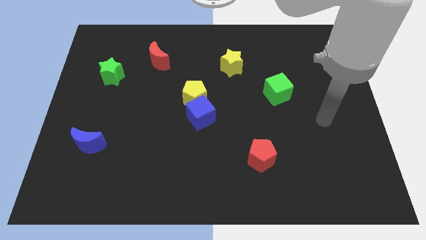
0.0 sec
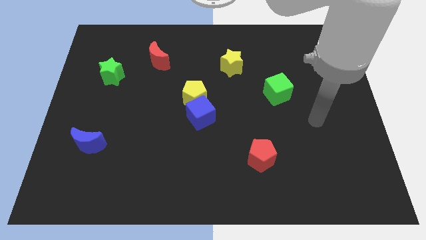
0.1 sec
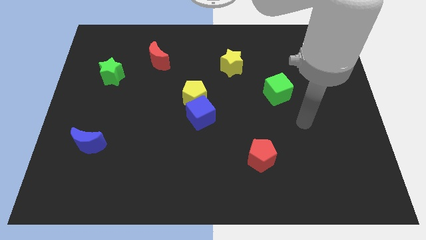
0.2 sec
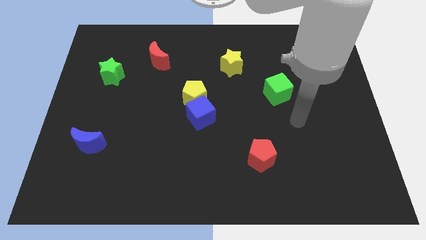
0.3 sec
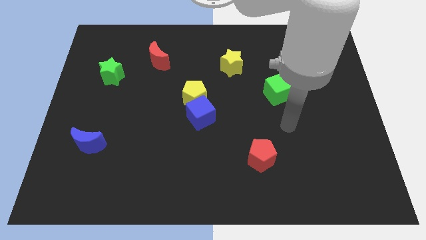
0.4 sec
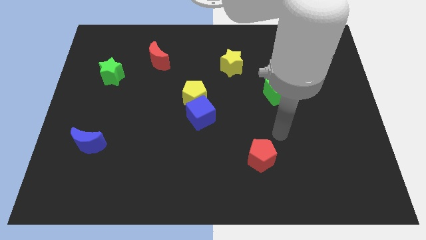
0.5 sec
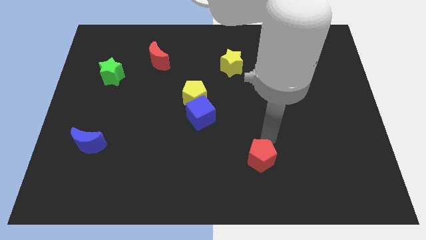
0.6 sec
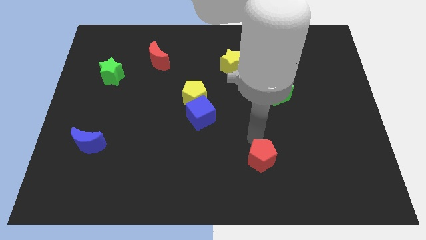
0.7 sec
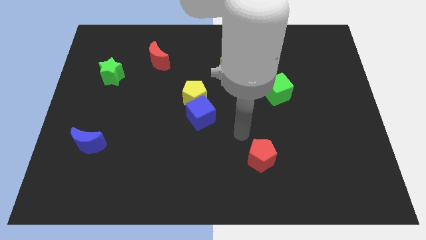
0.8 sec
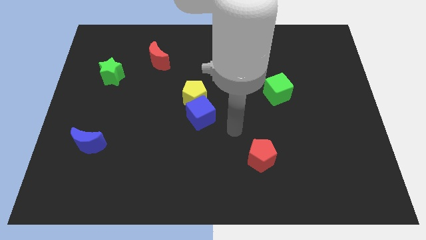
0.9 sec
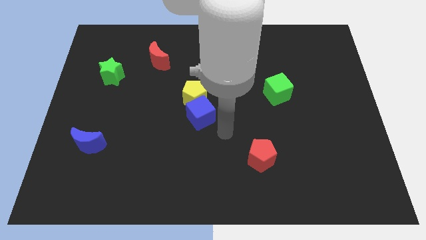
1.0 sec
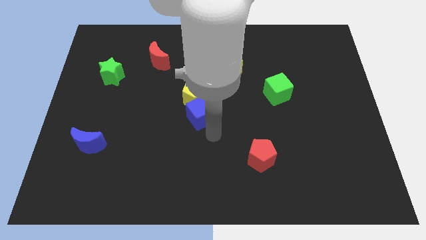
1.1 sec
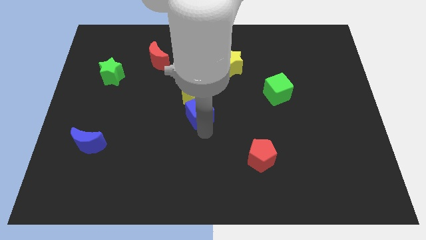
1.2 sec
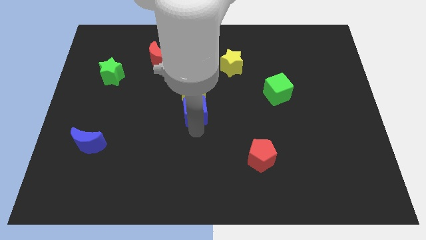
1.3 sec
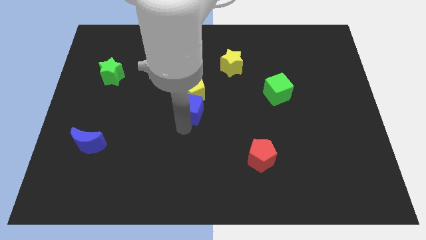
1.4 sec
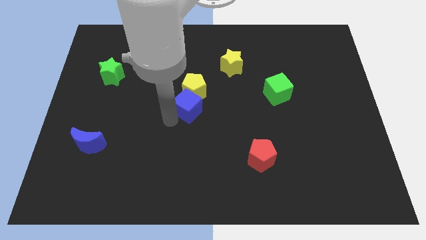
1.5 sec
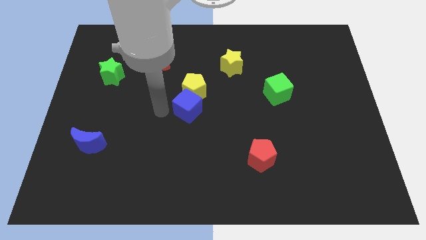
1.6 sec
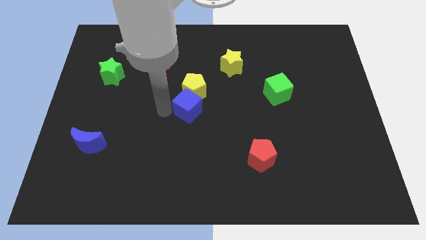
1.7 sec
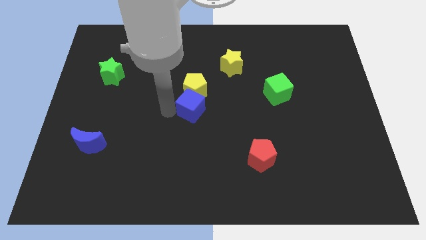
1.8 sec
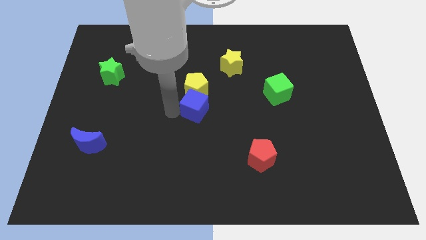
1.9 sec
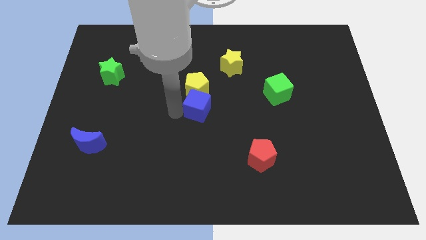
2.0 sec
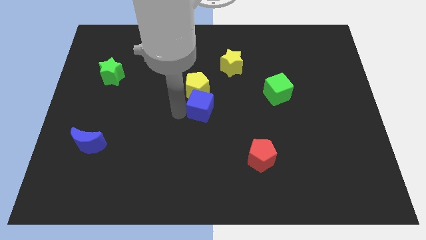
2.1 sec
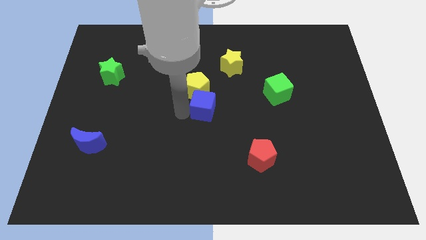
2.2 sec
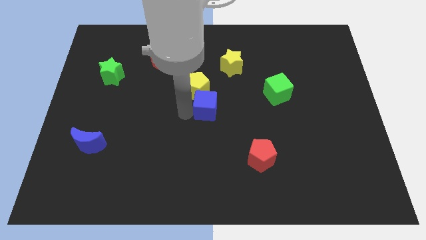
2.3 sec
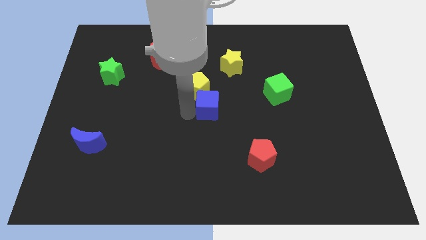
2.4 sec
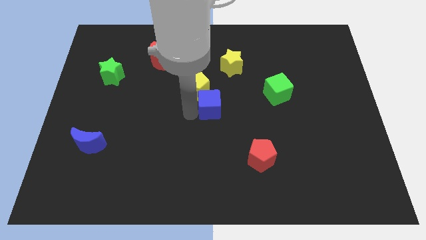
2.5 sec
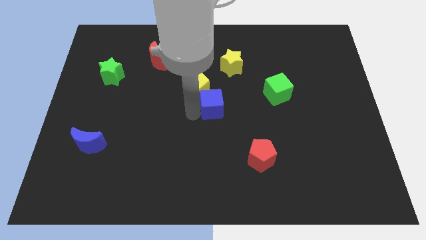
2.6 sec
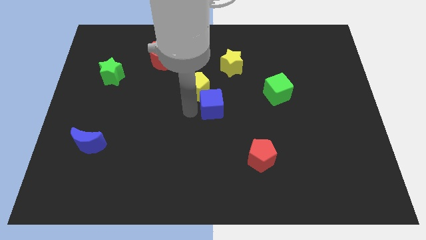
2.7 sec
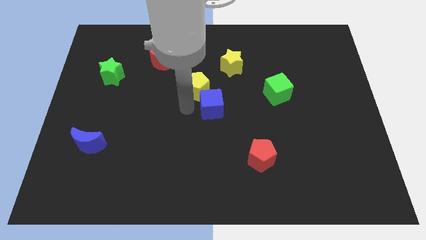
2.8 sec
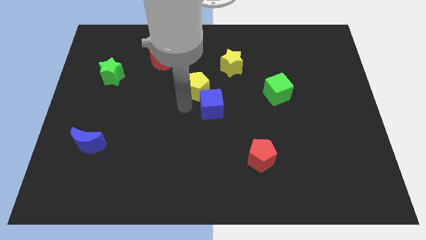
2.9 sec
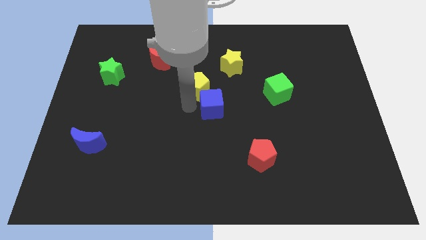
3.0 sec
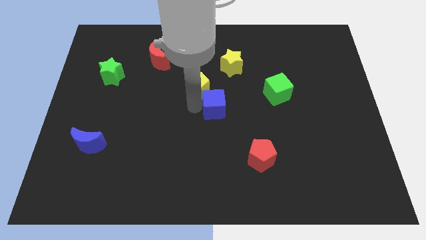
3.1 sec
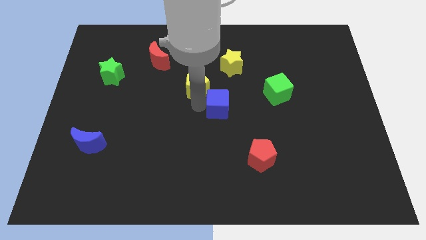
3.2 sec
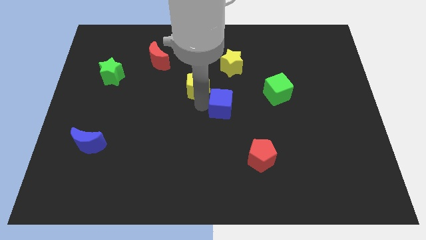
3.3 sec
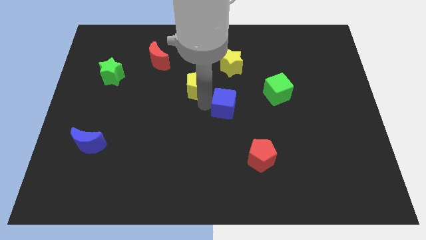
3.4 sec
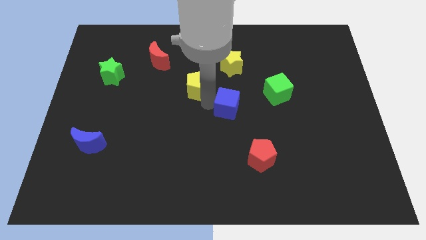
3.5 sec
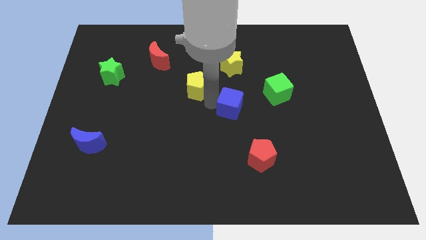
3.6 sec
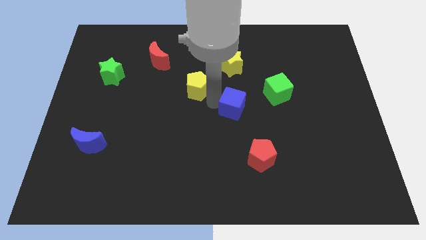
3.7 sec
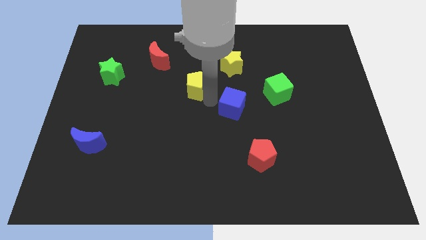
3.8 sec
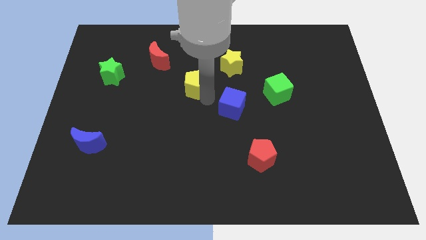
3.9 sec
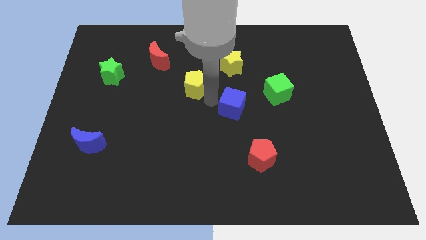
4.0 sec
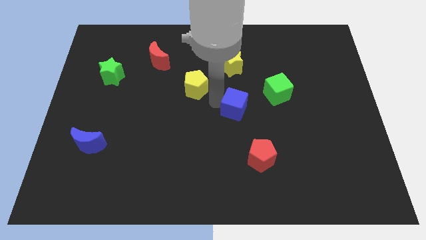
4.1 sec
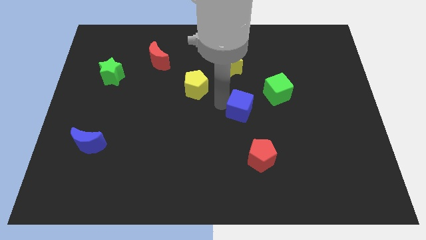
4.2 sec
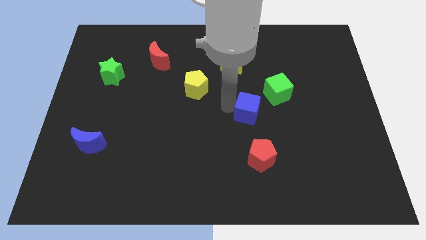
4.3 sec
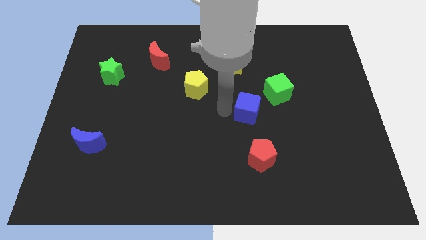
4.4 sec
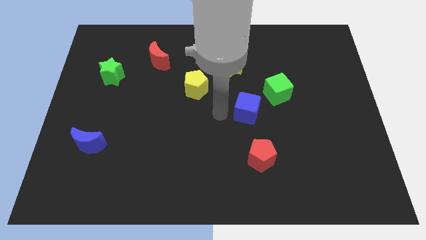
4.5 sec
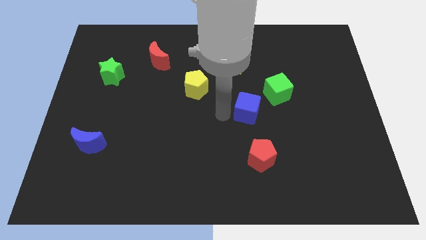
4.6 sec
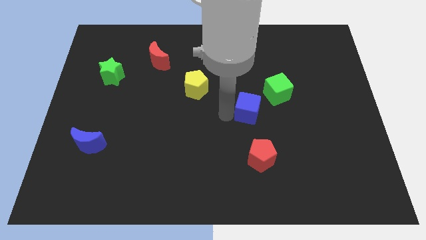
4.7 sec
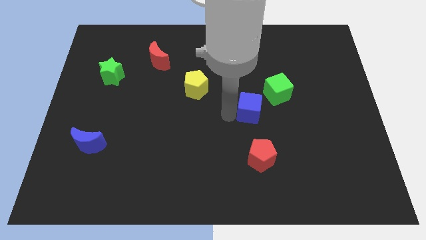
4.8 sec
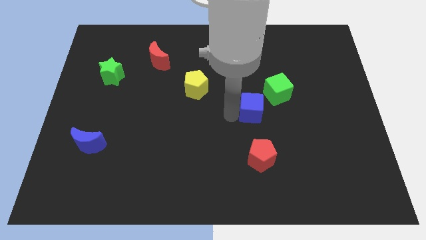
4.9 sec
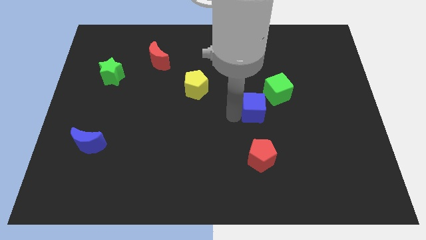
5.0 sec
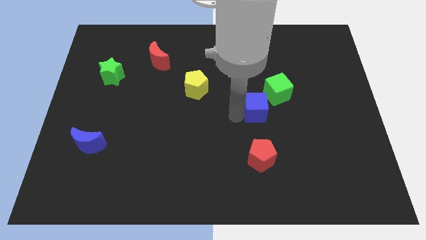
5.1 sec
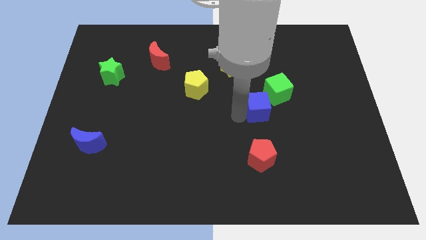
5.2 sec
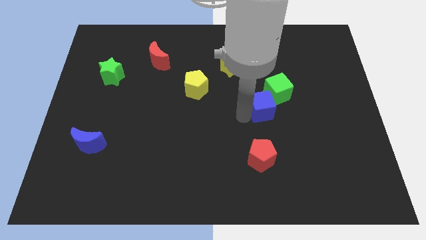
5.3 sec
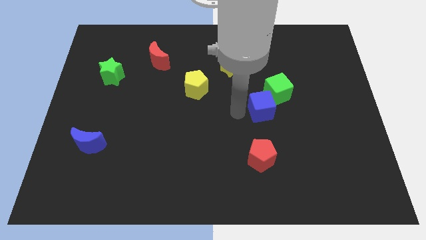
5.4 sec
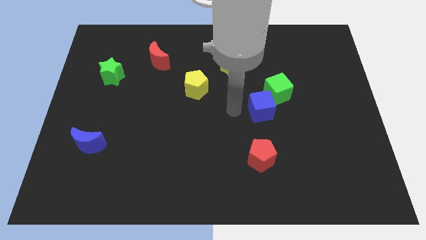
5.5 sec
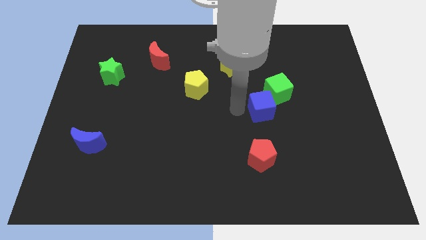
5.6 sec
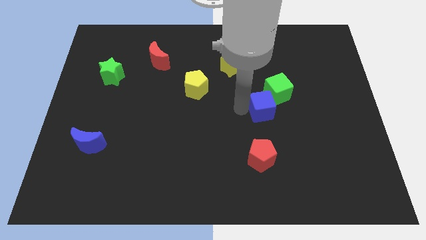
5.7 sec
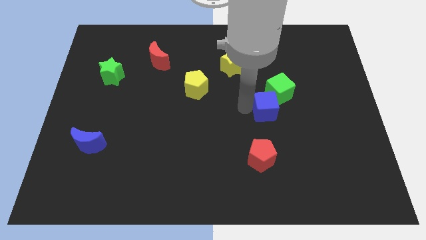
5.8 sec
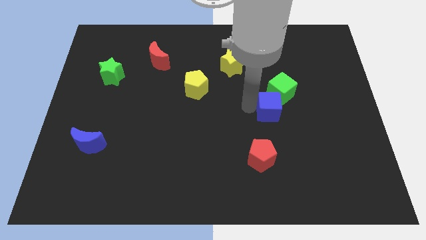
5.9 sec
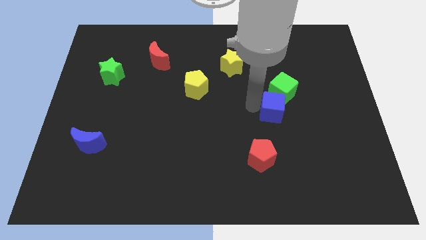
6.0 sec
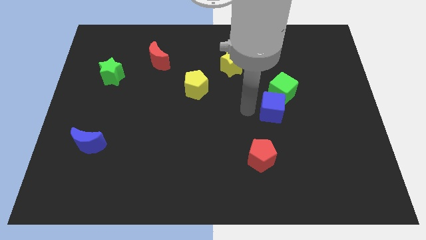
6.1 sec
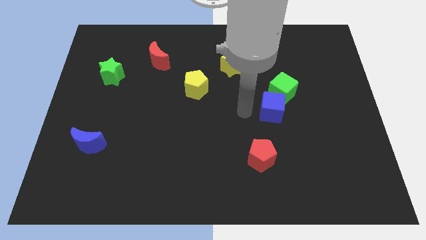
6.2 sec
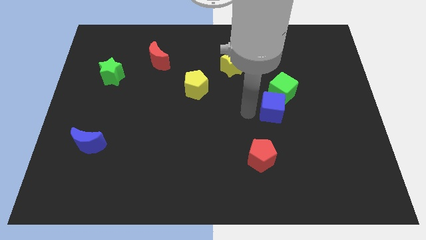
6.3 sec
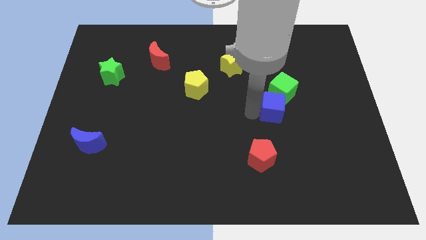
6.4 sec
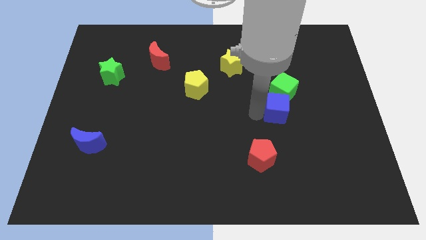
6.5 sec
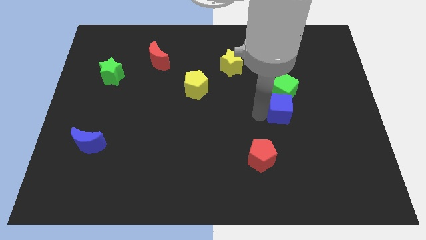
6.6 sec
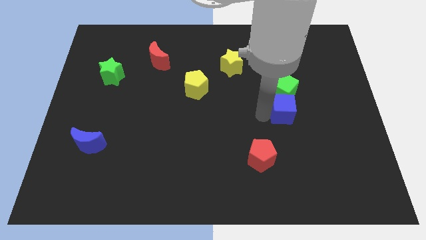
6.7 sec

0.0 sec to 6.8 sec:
push the blue cube diagonally down and to the right of the green cube

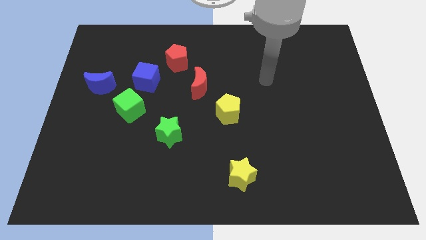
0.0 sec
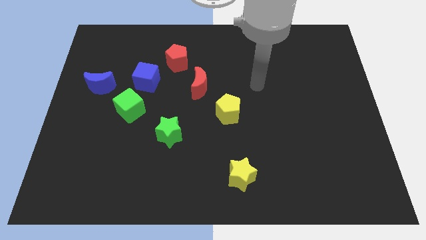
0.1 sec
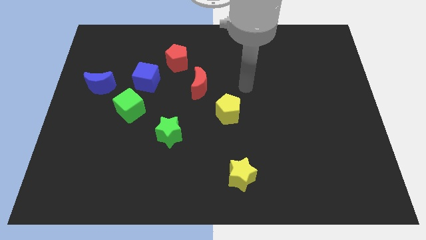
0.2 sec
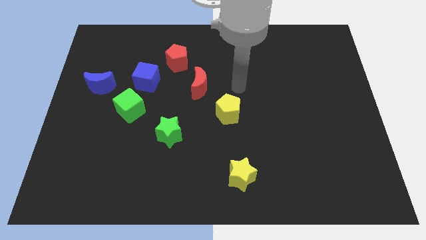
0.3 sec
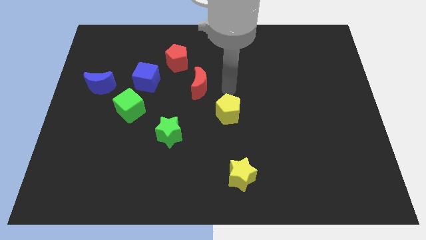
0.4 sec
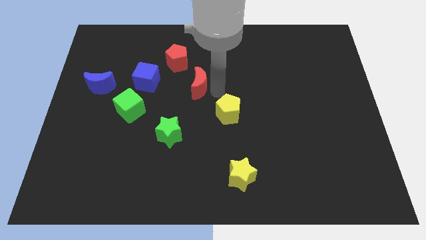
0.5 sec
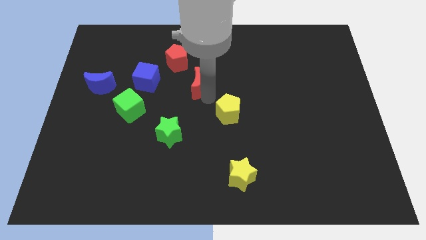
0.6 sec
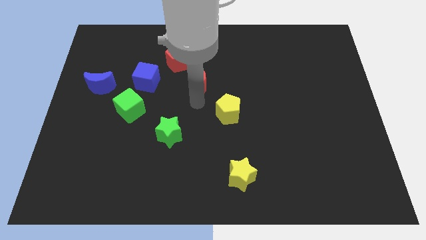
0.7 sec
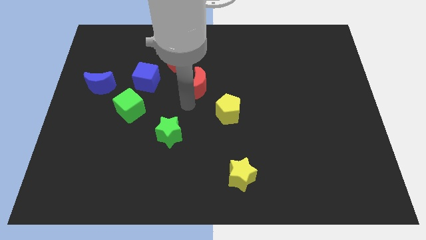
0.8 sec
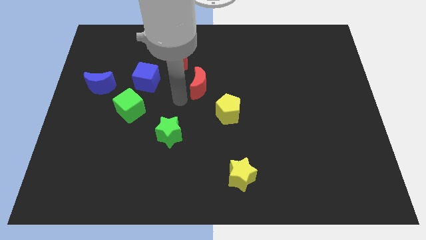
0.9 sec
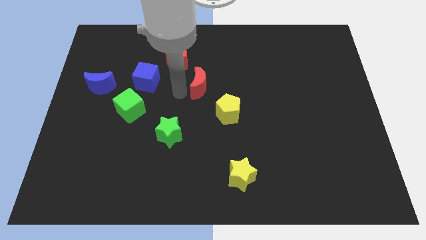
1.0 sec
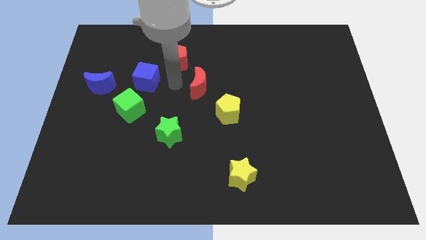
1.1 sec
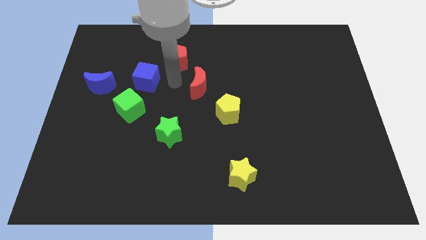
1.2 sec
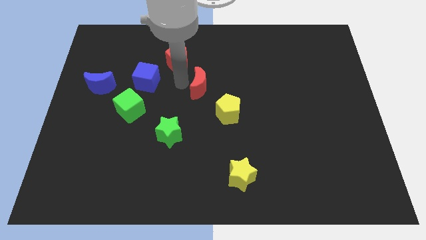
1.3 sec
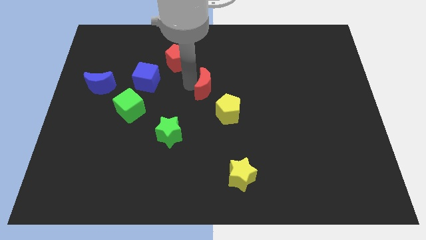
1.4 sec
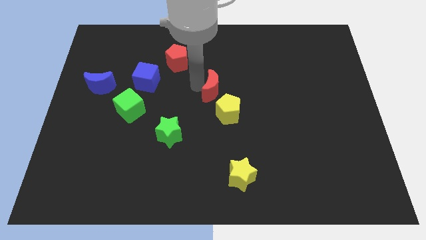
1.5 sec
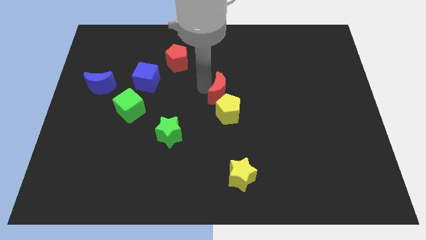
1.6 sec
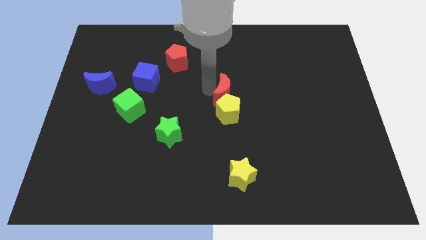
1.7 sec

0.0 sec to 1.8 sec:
move the red moon to the top right side of the yellow pentagon
